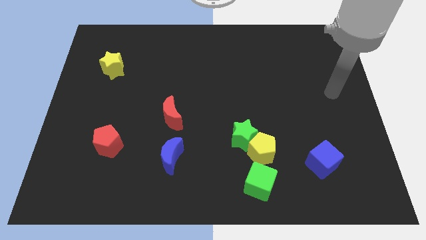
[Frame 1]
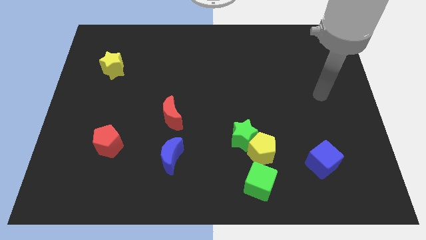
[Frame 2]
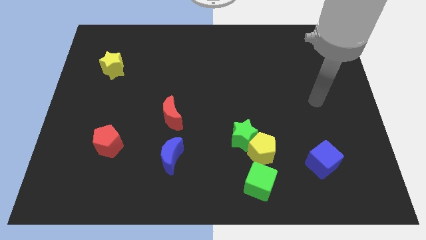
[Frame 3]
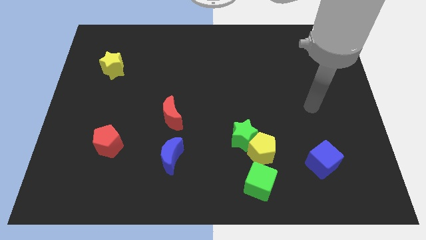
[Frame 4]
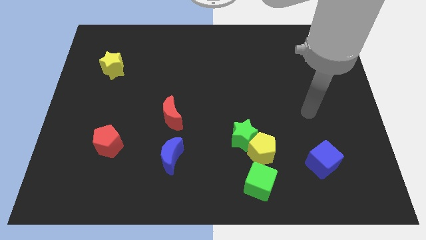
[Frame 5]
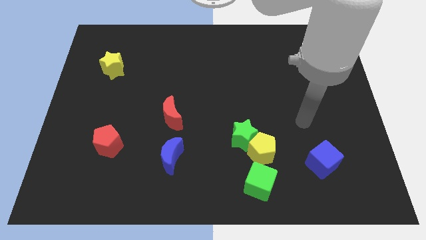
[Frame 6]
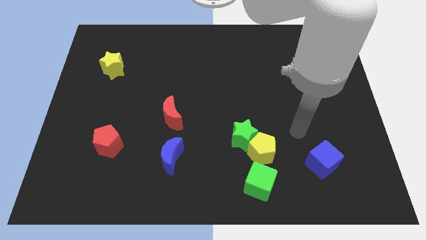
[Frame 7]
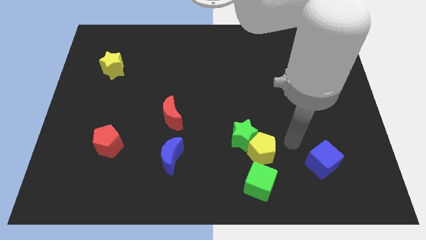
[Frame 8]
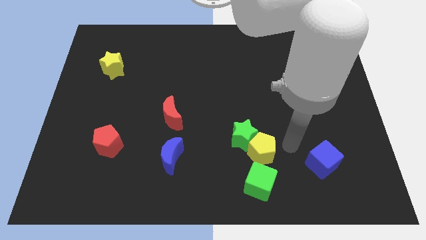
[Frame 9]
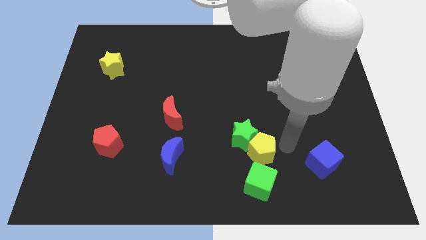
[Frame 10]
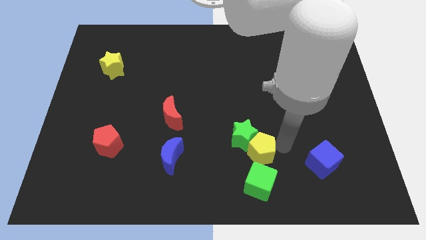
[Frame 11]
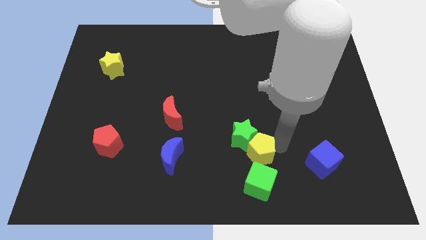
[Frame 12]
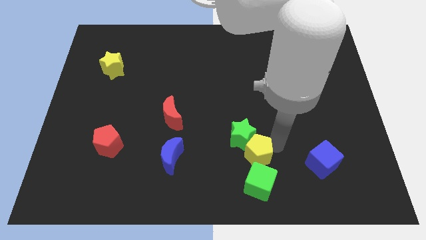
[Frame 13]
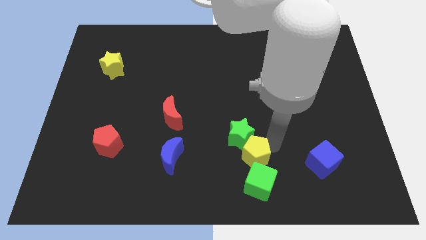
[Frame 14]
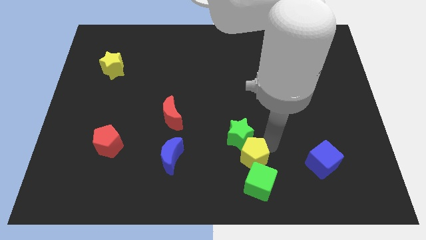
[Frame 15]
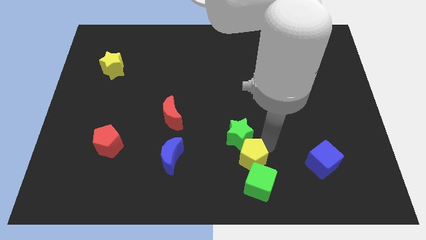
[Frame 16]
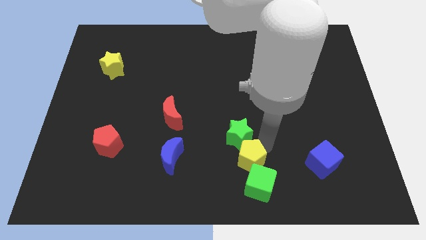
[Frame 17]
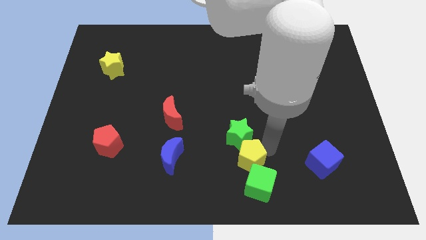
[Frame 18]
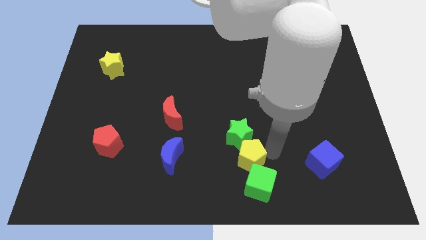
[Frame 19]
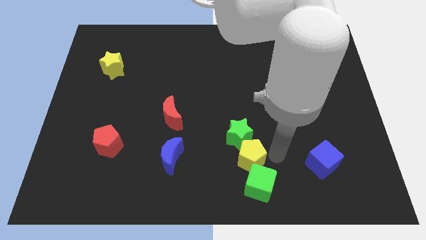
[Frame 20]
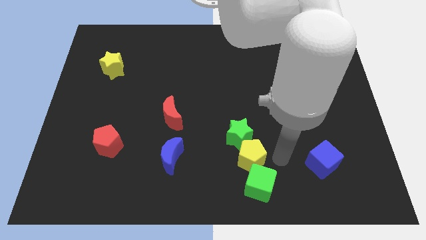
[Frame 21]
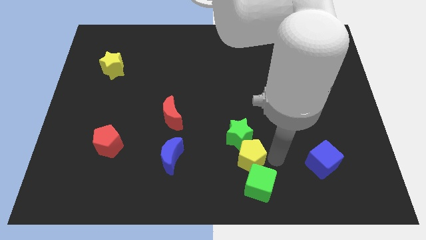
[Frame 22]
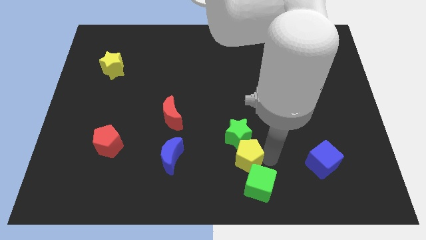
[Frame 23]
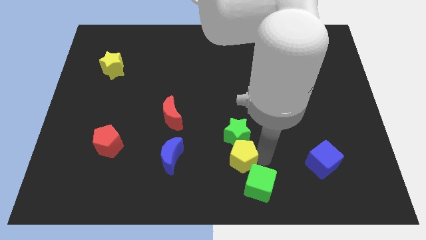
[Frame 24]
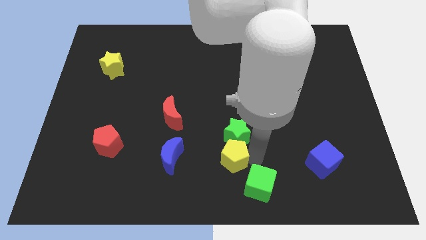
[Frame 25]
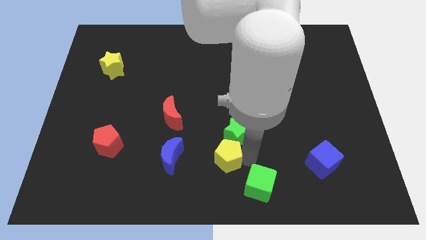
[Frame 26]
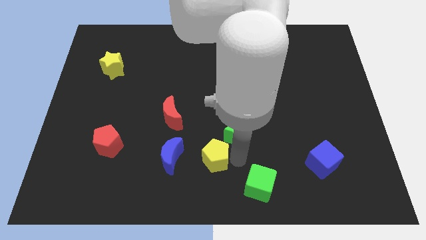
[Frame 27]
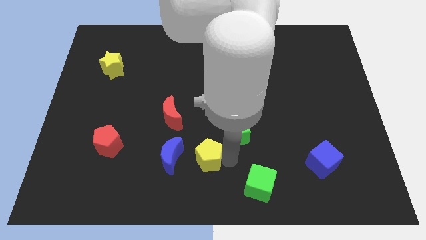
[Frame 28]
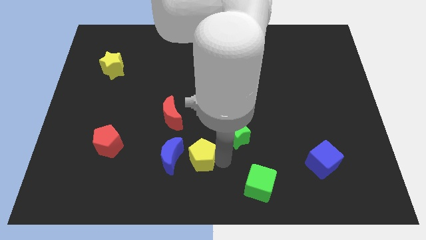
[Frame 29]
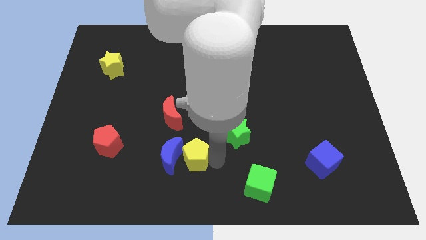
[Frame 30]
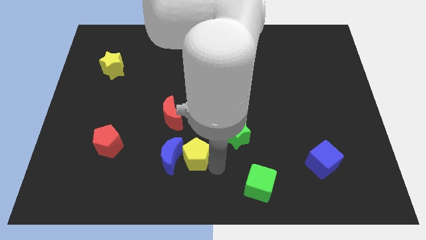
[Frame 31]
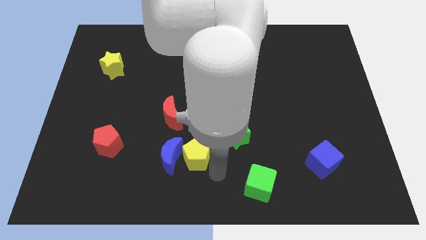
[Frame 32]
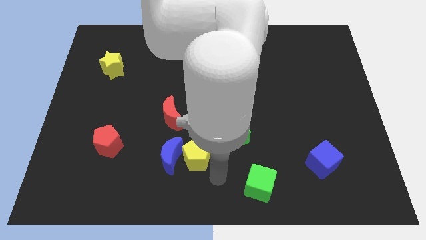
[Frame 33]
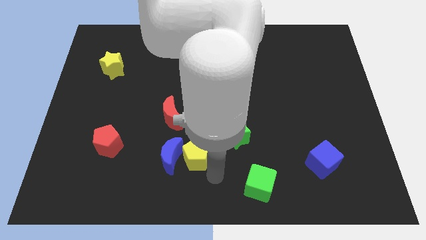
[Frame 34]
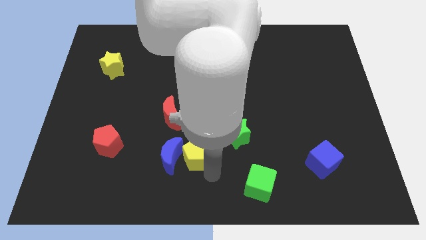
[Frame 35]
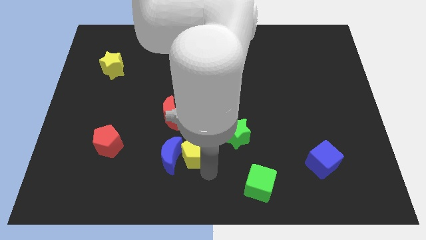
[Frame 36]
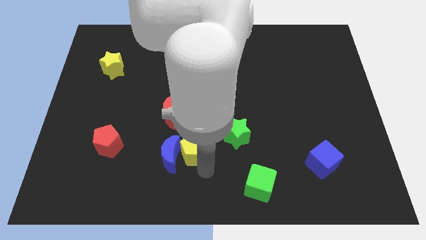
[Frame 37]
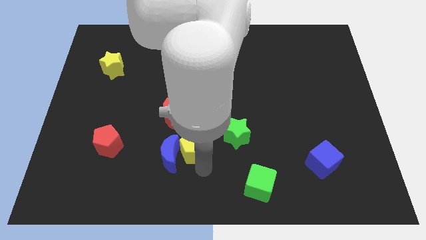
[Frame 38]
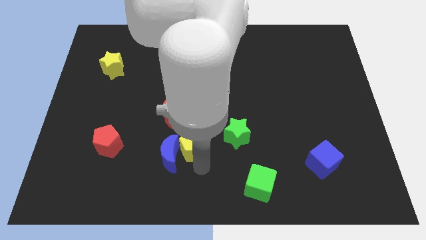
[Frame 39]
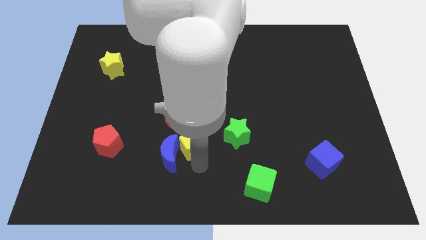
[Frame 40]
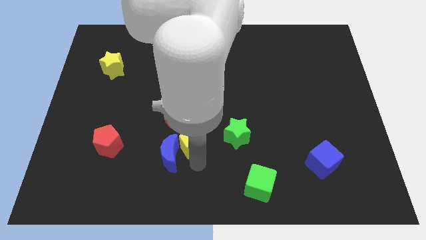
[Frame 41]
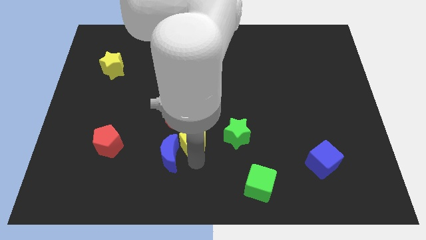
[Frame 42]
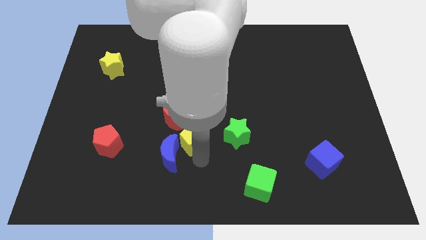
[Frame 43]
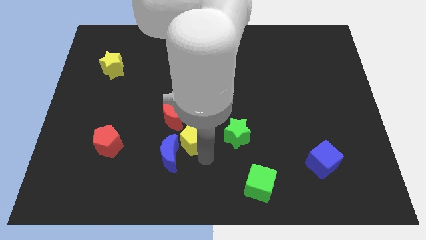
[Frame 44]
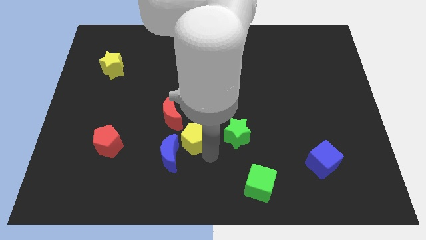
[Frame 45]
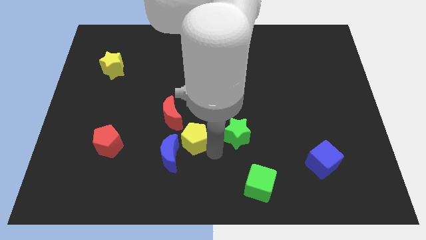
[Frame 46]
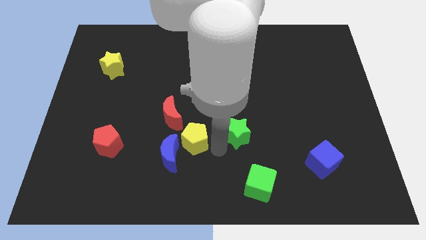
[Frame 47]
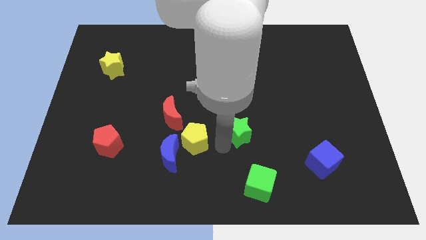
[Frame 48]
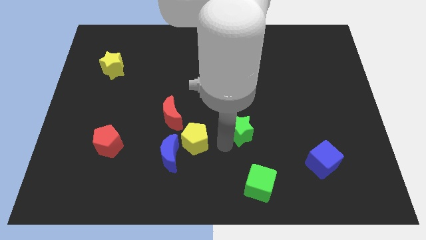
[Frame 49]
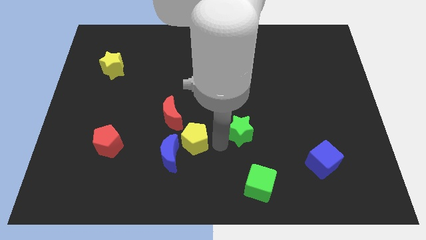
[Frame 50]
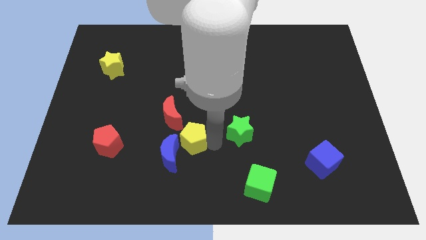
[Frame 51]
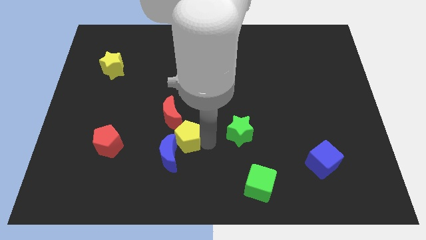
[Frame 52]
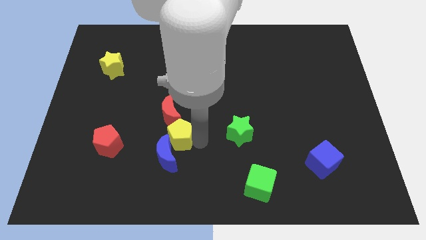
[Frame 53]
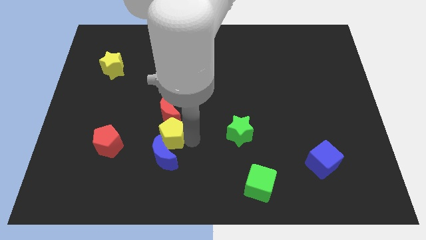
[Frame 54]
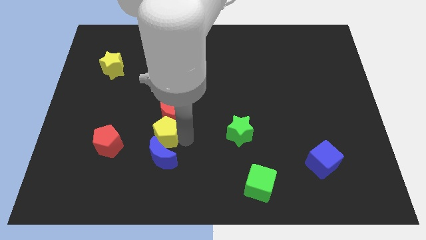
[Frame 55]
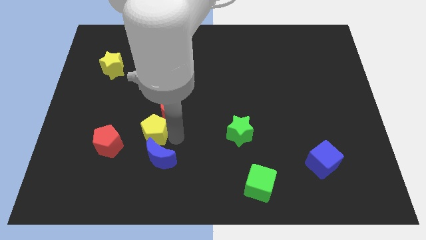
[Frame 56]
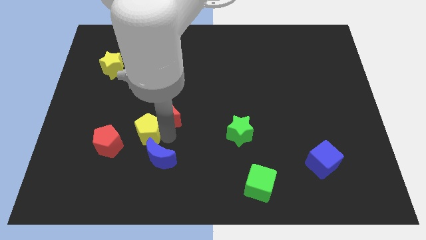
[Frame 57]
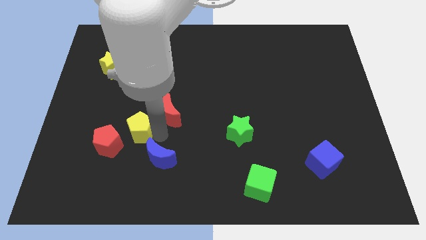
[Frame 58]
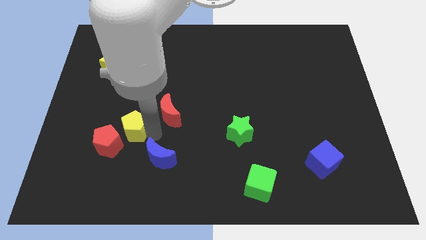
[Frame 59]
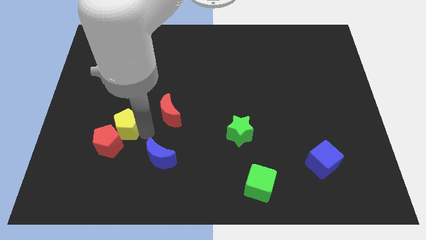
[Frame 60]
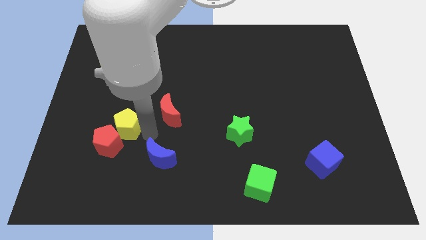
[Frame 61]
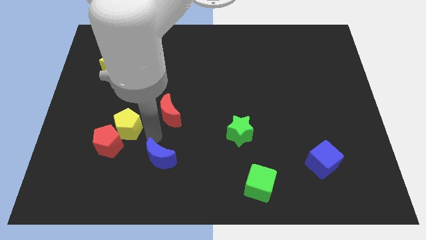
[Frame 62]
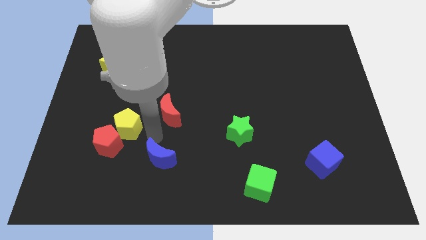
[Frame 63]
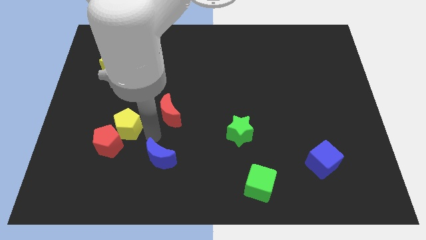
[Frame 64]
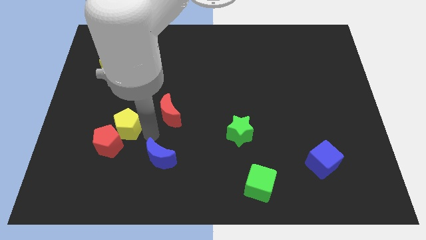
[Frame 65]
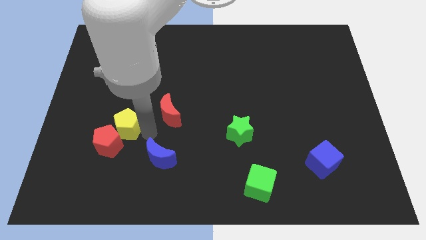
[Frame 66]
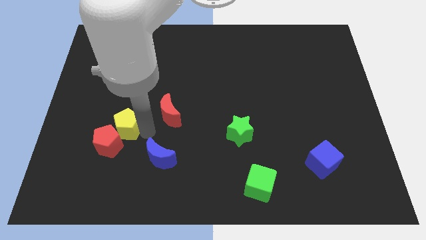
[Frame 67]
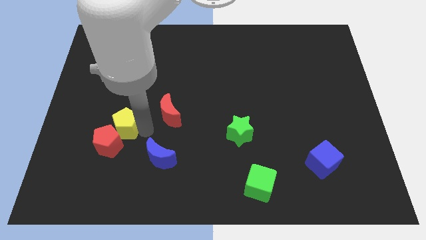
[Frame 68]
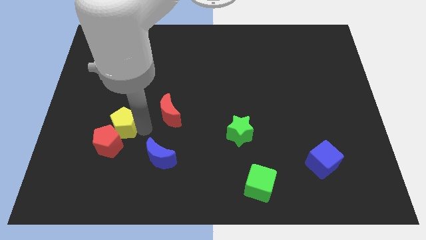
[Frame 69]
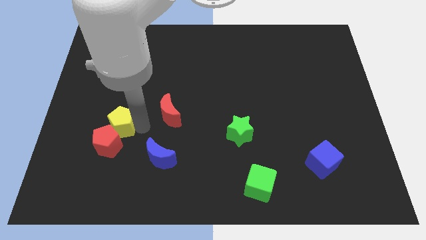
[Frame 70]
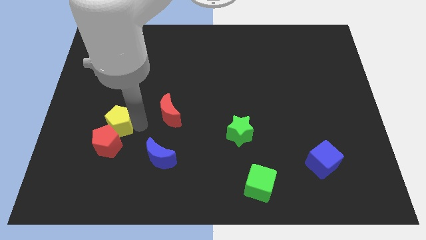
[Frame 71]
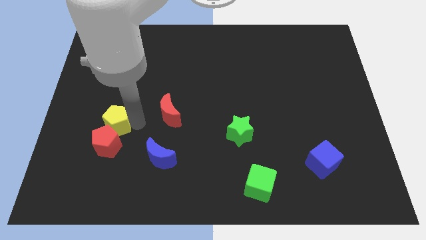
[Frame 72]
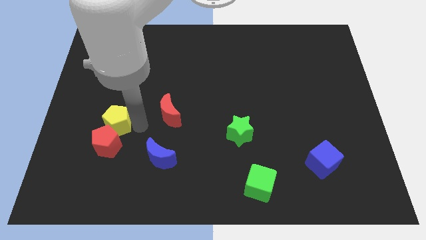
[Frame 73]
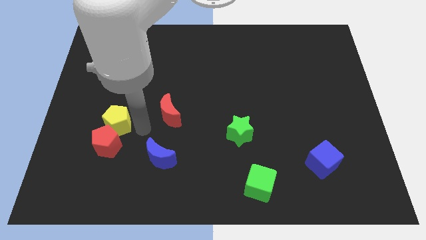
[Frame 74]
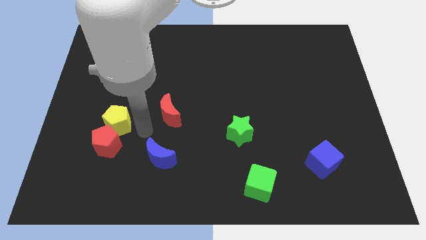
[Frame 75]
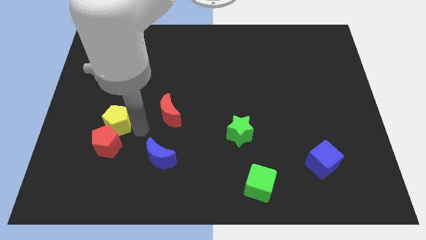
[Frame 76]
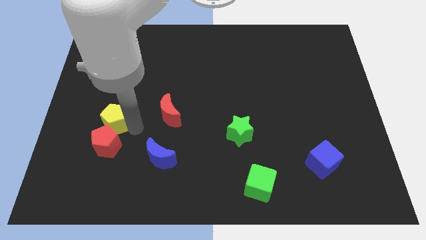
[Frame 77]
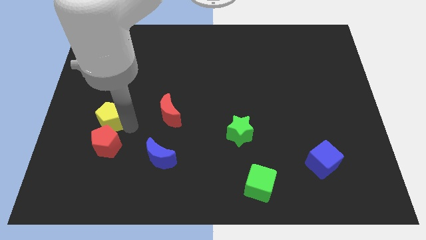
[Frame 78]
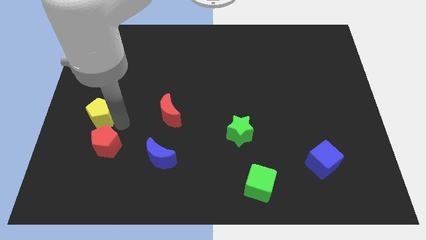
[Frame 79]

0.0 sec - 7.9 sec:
push the yellow pentagon to the center left
